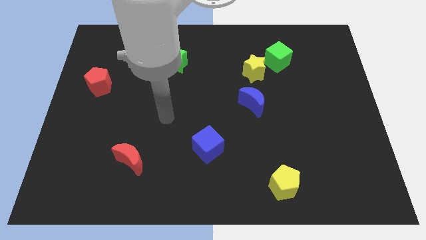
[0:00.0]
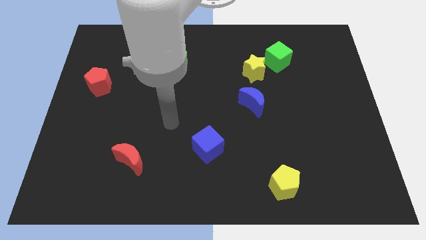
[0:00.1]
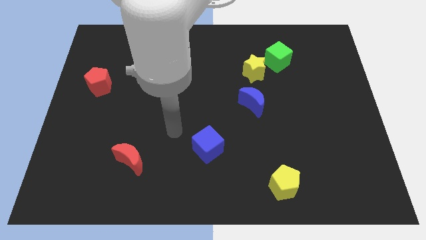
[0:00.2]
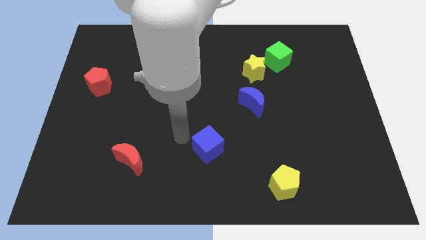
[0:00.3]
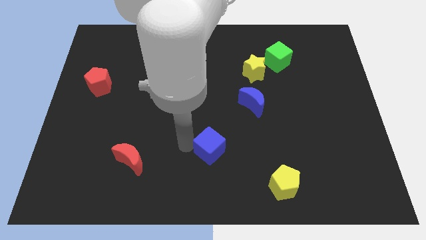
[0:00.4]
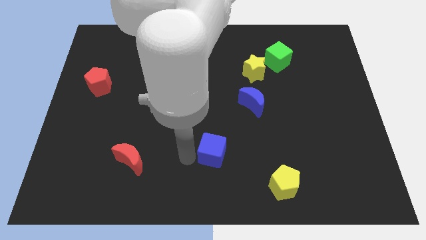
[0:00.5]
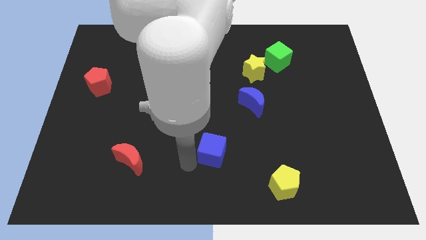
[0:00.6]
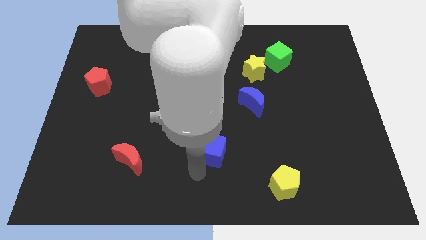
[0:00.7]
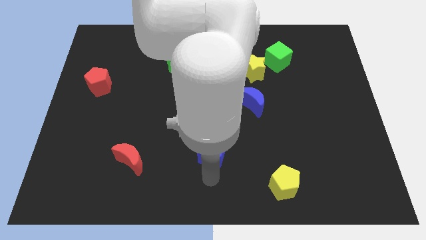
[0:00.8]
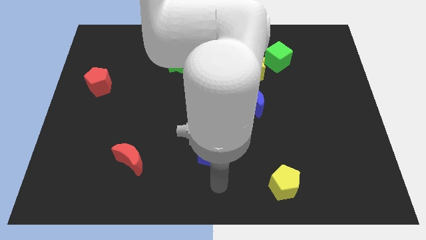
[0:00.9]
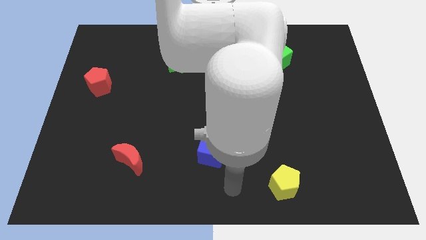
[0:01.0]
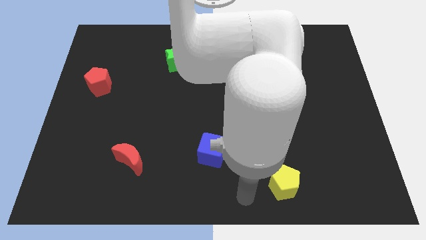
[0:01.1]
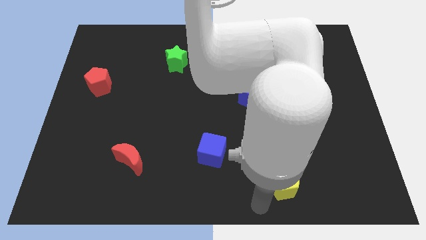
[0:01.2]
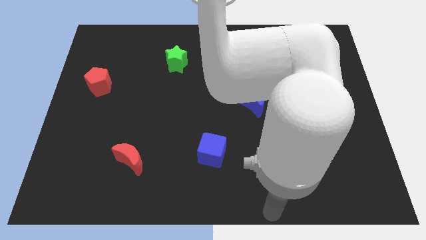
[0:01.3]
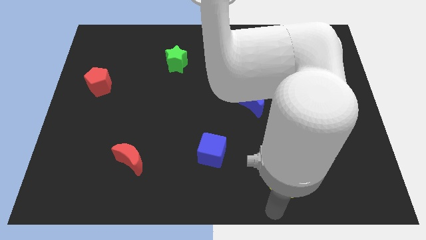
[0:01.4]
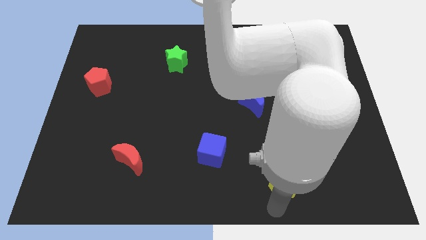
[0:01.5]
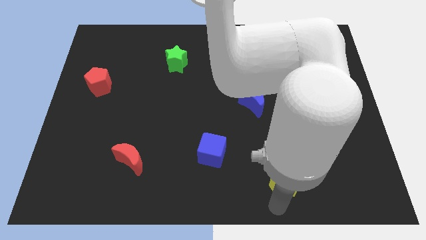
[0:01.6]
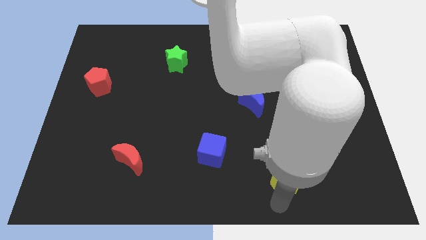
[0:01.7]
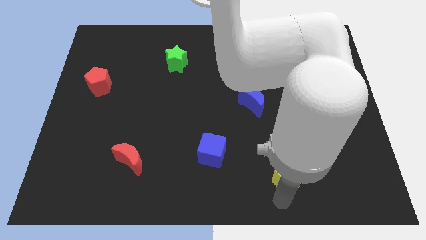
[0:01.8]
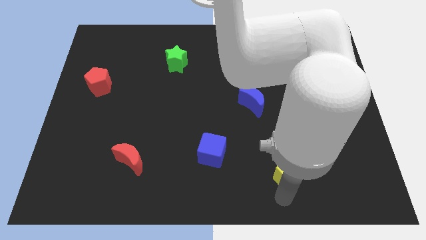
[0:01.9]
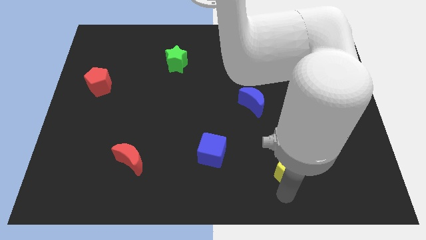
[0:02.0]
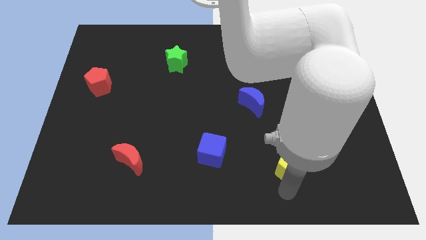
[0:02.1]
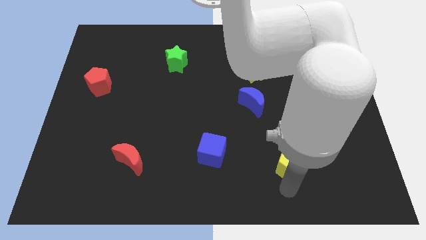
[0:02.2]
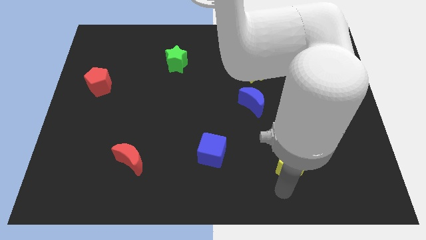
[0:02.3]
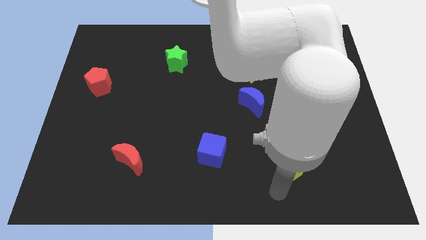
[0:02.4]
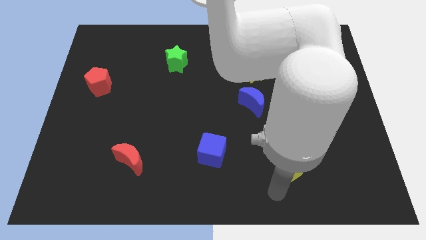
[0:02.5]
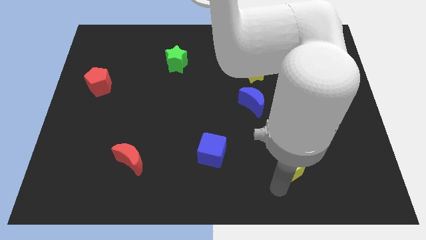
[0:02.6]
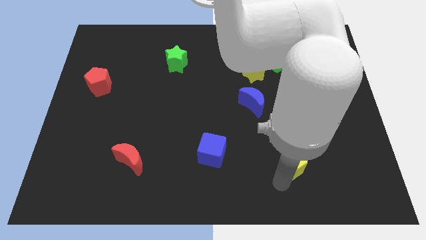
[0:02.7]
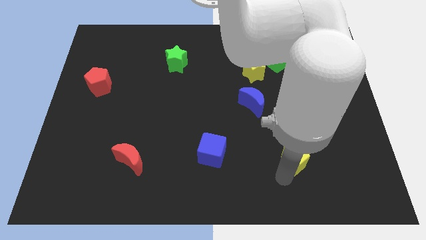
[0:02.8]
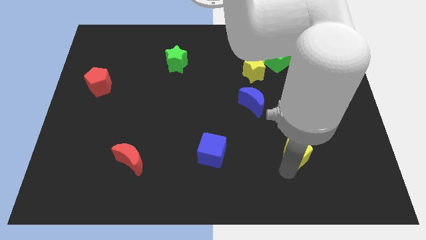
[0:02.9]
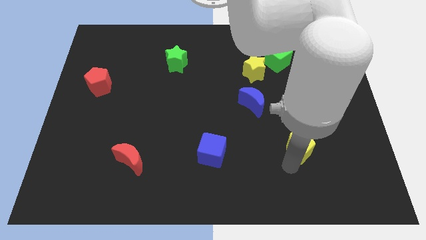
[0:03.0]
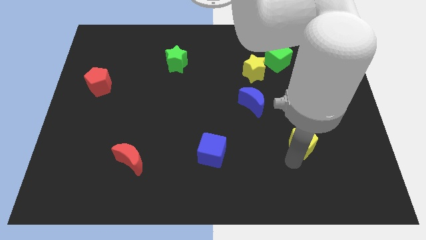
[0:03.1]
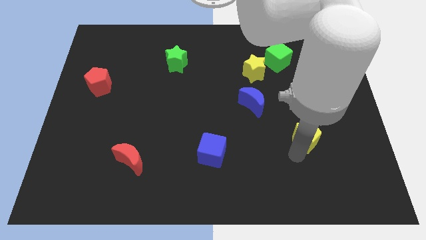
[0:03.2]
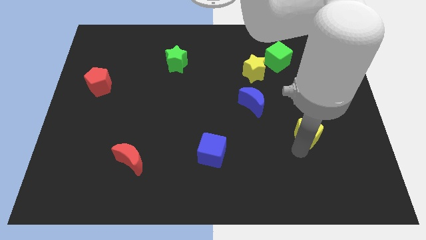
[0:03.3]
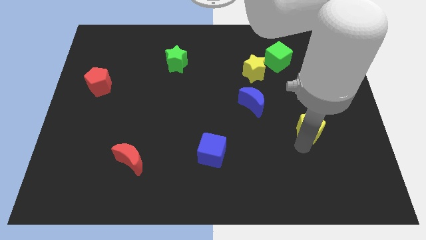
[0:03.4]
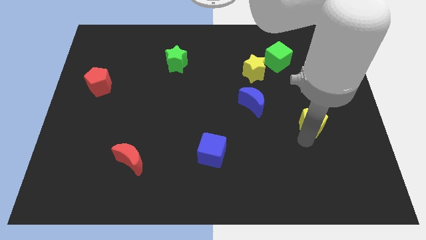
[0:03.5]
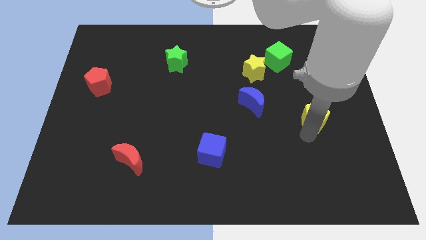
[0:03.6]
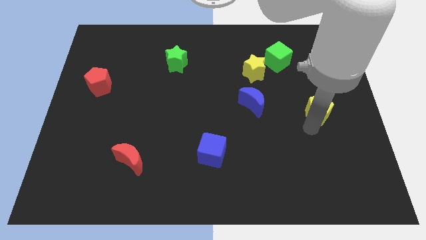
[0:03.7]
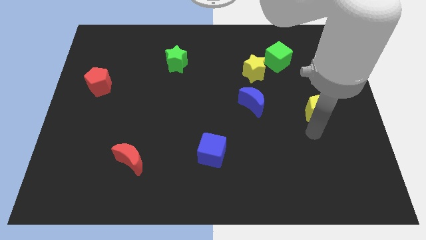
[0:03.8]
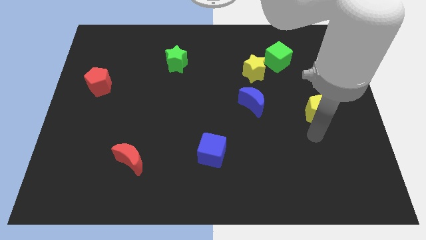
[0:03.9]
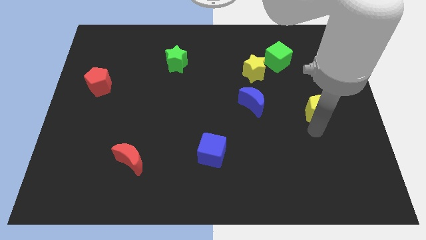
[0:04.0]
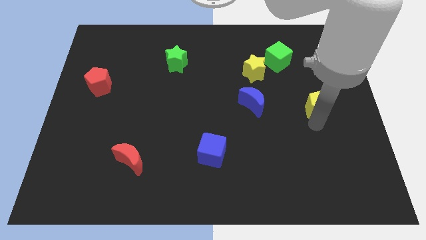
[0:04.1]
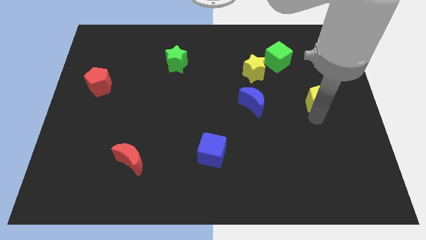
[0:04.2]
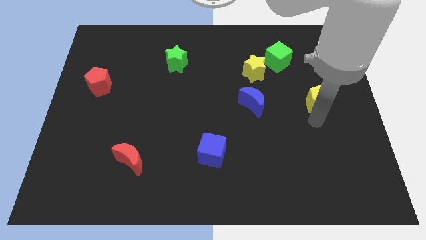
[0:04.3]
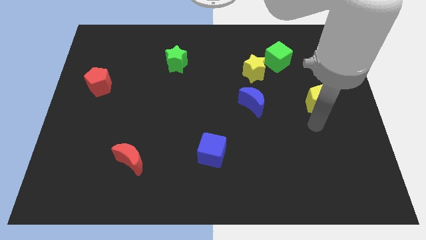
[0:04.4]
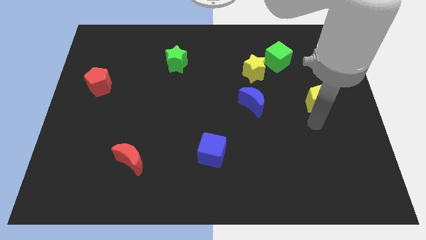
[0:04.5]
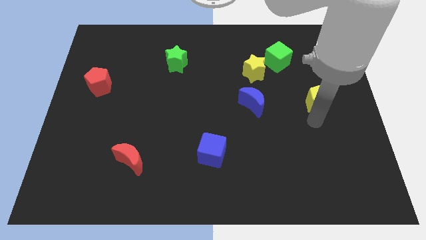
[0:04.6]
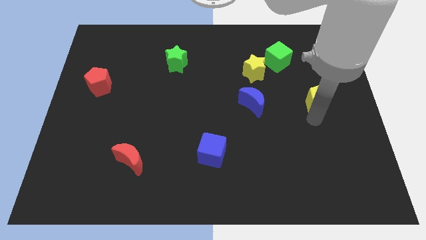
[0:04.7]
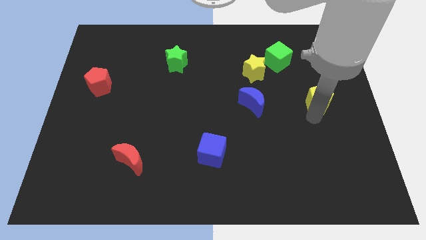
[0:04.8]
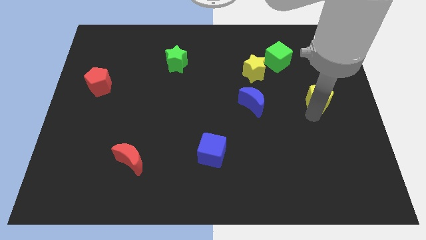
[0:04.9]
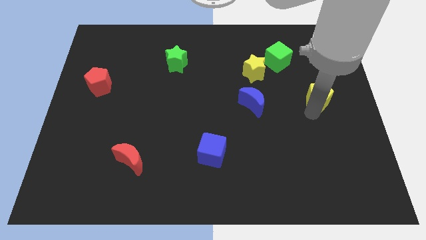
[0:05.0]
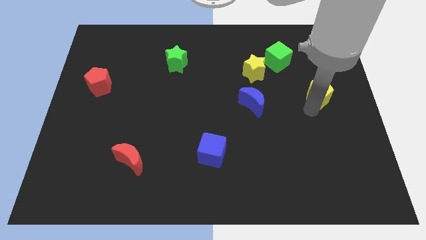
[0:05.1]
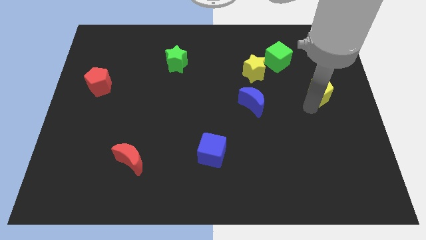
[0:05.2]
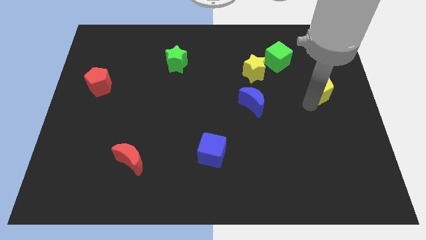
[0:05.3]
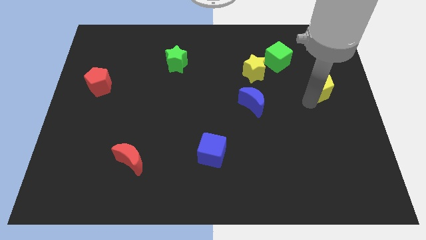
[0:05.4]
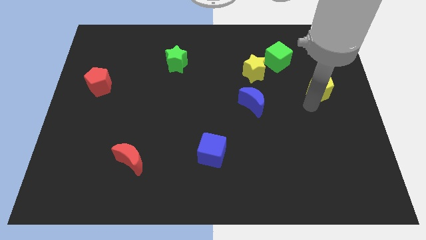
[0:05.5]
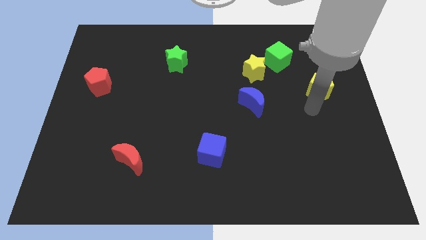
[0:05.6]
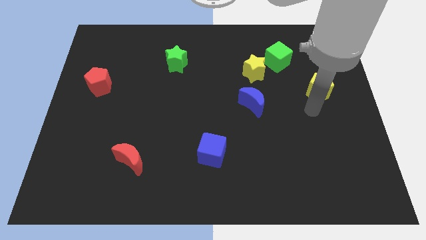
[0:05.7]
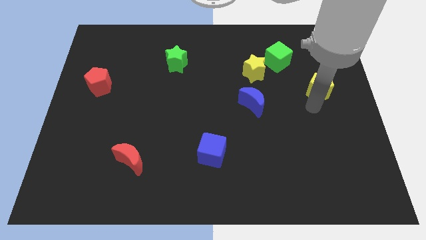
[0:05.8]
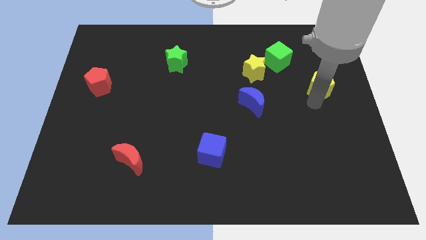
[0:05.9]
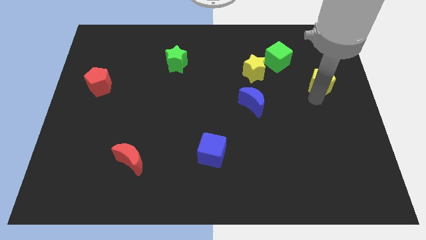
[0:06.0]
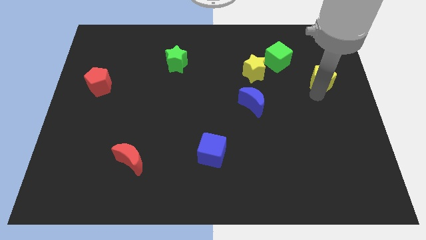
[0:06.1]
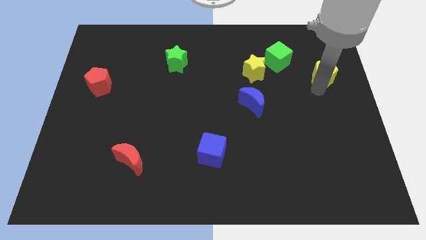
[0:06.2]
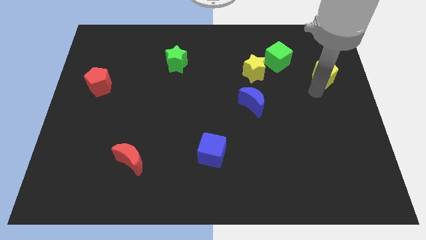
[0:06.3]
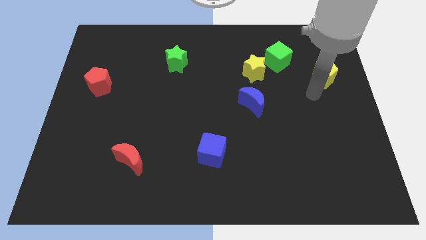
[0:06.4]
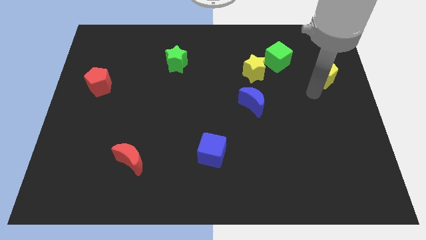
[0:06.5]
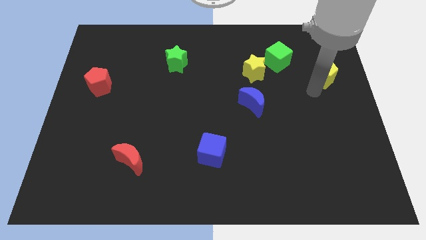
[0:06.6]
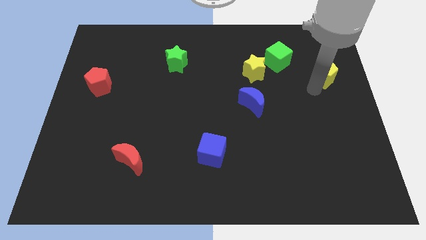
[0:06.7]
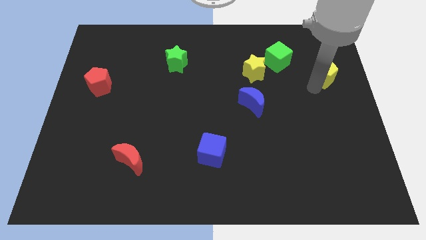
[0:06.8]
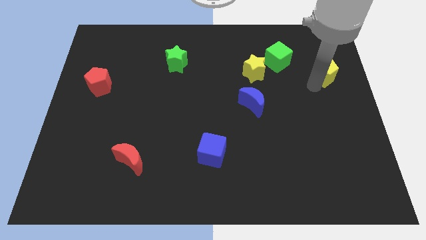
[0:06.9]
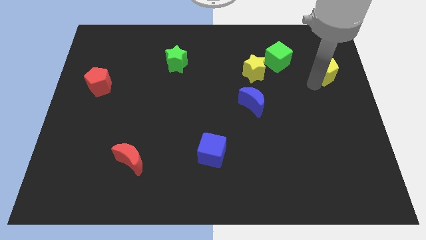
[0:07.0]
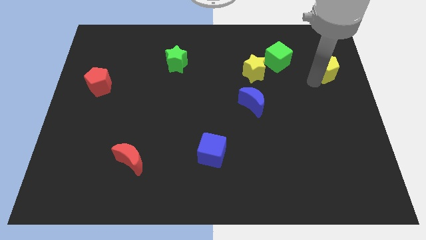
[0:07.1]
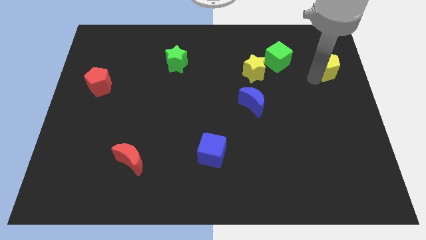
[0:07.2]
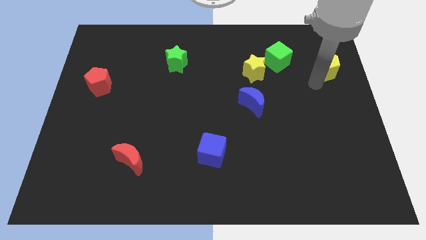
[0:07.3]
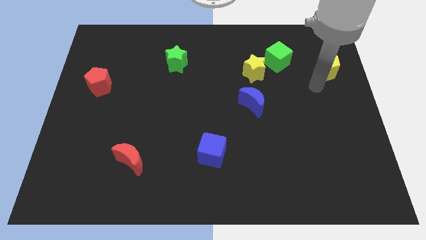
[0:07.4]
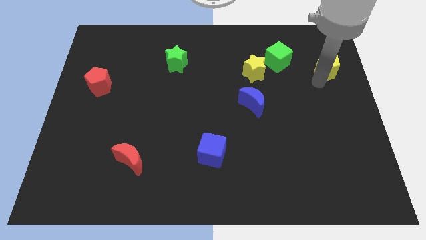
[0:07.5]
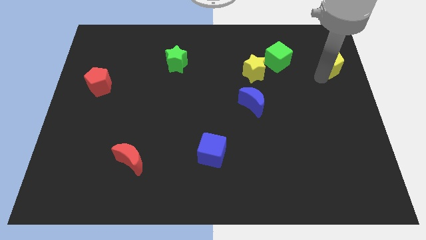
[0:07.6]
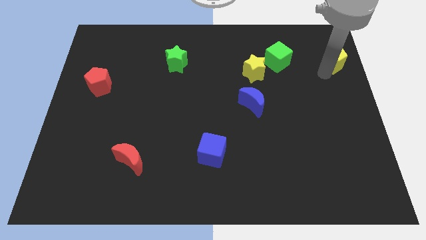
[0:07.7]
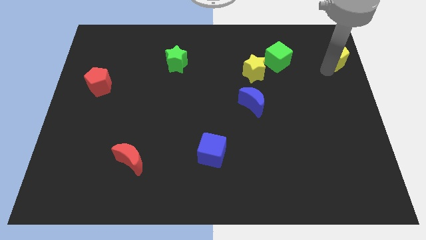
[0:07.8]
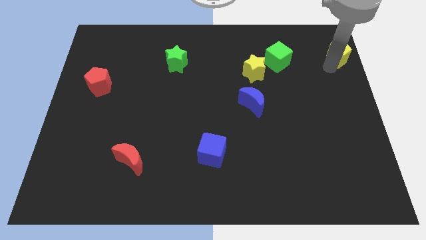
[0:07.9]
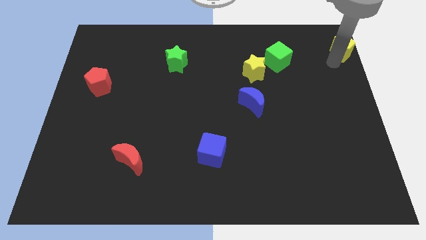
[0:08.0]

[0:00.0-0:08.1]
move the yellow pentagon to the top right of the board
